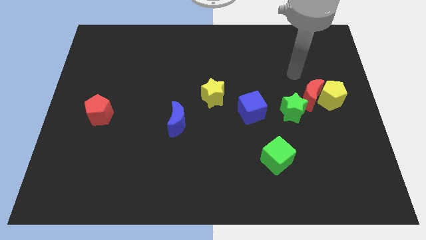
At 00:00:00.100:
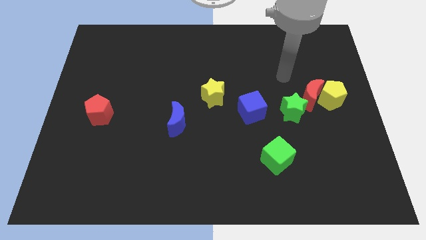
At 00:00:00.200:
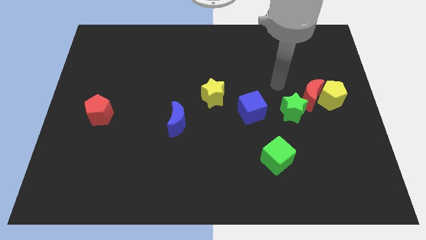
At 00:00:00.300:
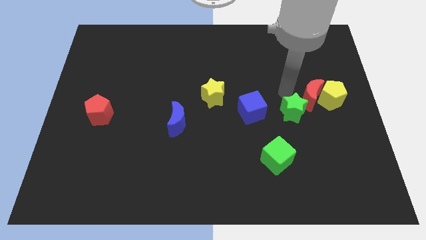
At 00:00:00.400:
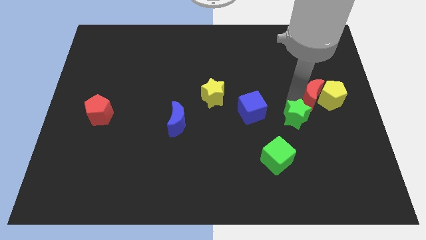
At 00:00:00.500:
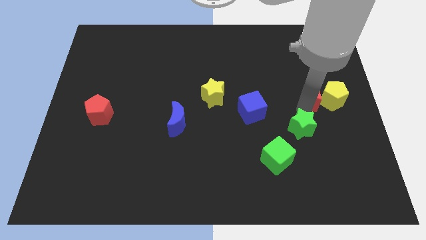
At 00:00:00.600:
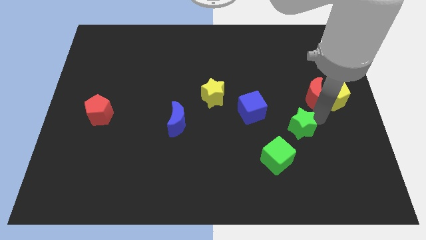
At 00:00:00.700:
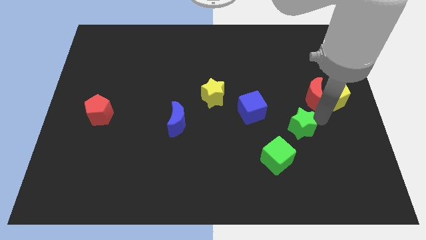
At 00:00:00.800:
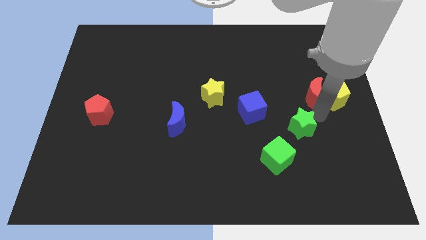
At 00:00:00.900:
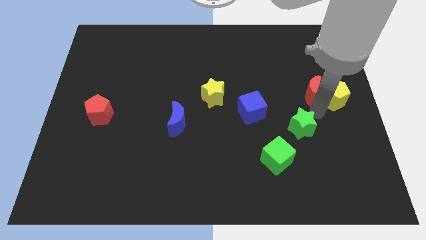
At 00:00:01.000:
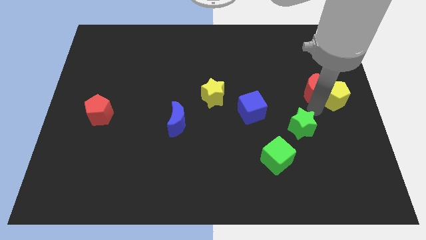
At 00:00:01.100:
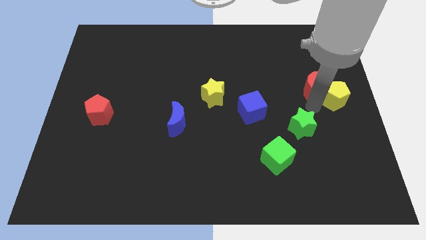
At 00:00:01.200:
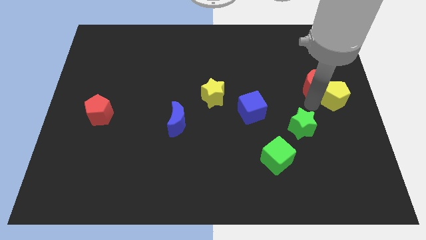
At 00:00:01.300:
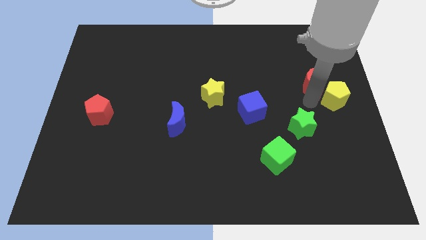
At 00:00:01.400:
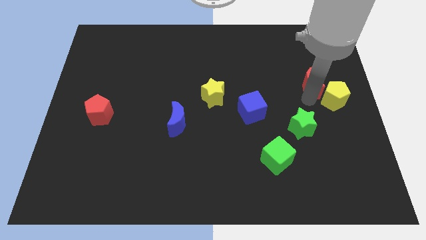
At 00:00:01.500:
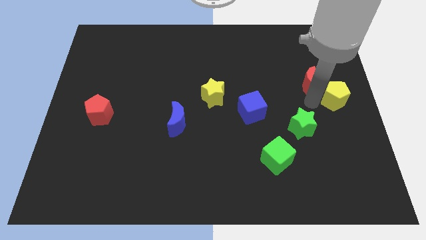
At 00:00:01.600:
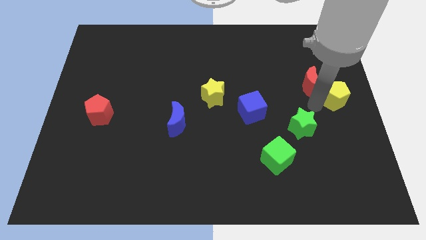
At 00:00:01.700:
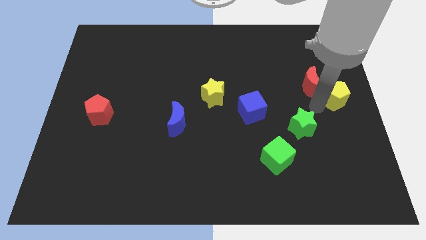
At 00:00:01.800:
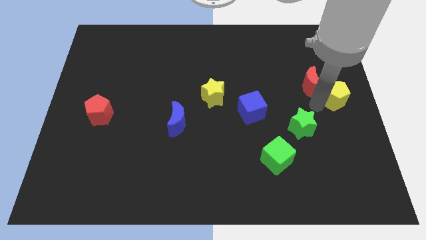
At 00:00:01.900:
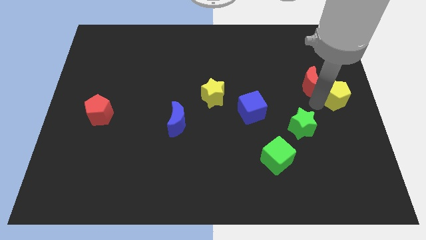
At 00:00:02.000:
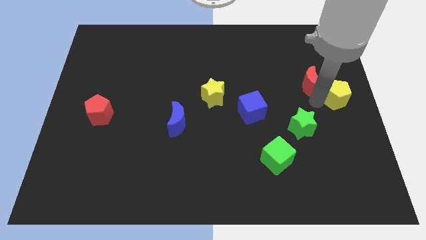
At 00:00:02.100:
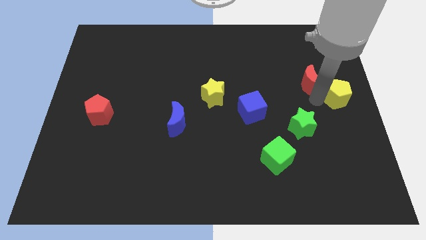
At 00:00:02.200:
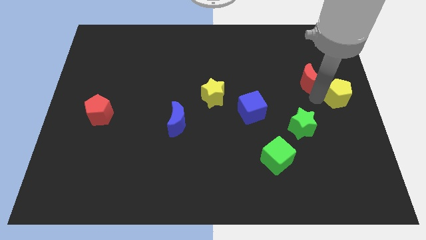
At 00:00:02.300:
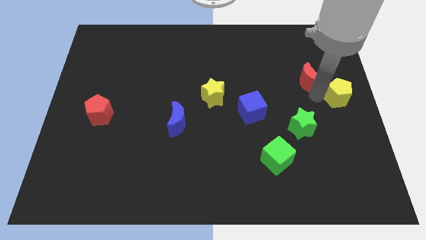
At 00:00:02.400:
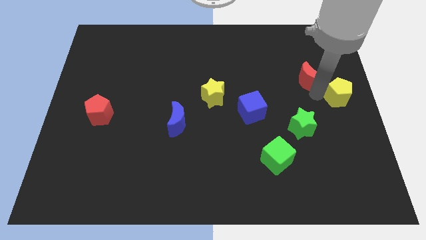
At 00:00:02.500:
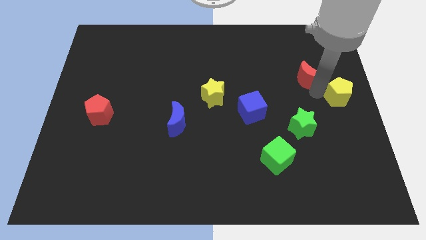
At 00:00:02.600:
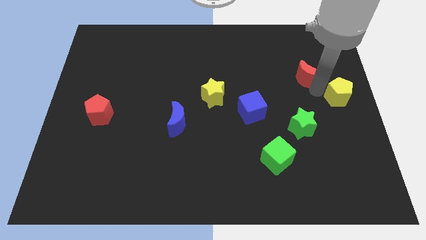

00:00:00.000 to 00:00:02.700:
move the red moon away from the yellow pentagon and green star

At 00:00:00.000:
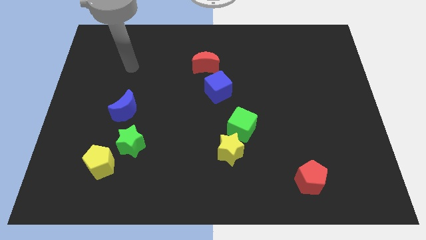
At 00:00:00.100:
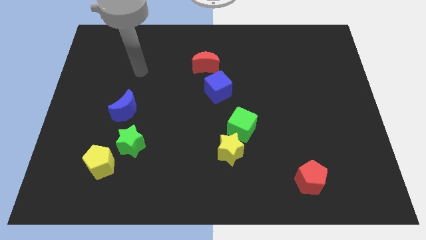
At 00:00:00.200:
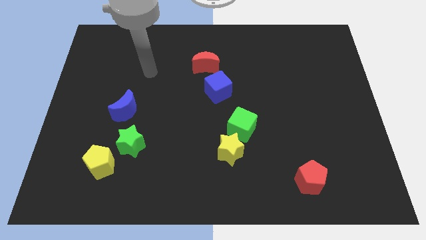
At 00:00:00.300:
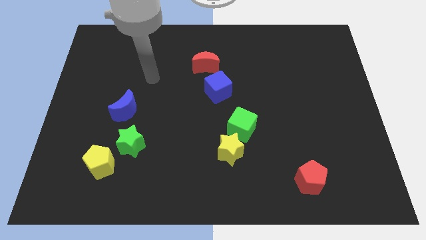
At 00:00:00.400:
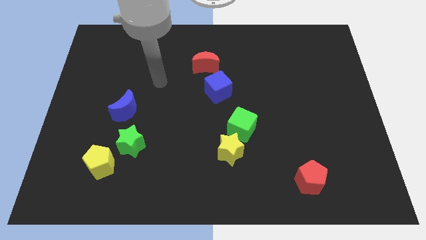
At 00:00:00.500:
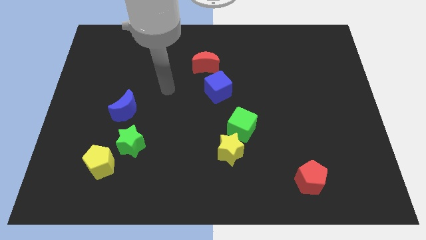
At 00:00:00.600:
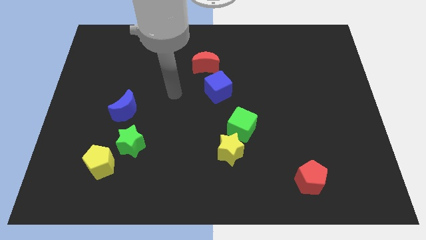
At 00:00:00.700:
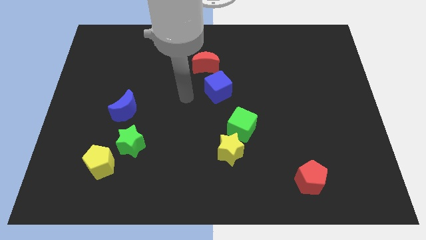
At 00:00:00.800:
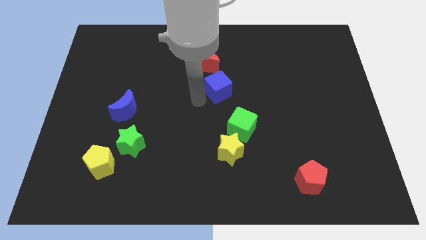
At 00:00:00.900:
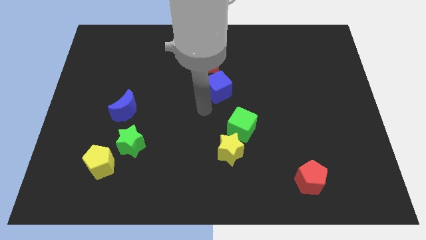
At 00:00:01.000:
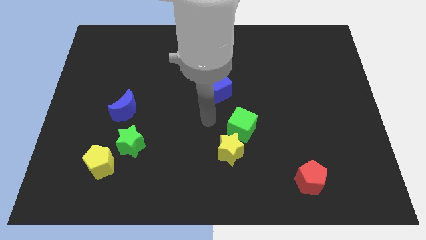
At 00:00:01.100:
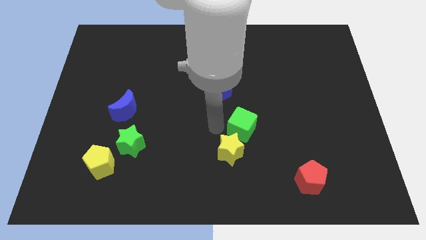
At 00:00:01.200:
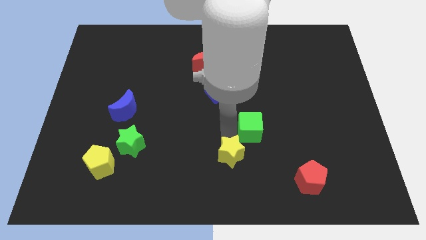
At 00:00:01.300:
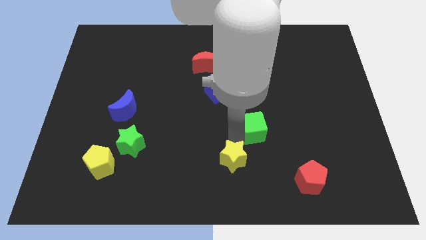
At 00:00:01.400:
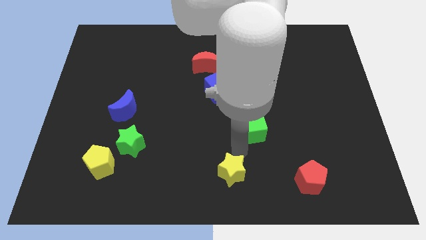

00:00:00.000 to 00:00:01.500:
pull the green cube apart from the yellow star

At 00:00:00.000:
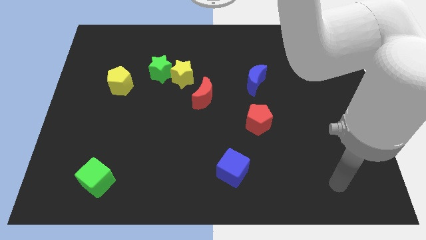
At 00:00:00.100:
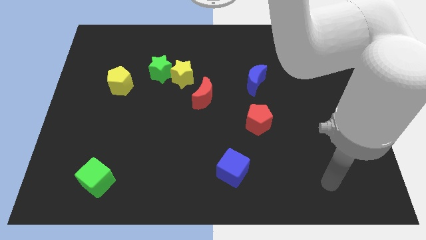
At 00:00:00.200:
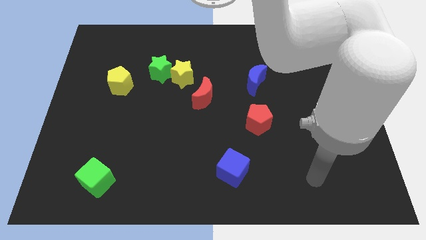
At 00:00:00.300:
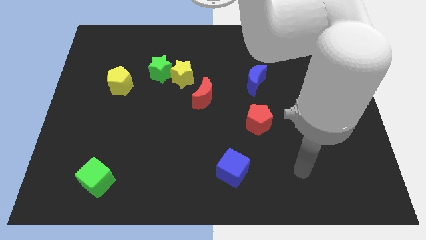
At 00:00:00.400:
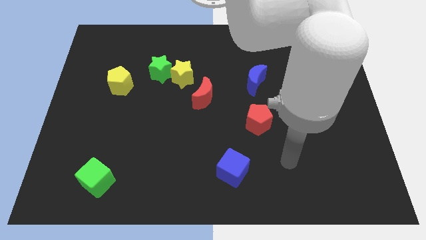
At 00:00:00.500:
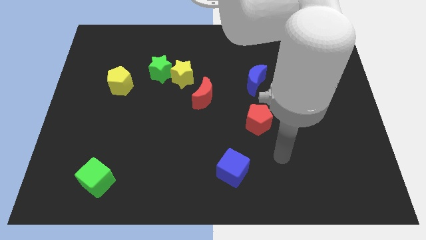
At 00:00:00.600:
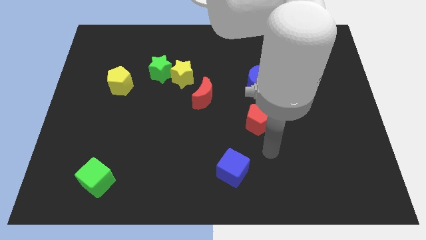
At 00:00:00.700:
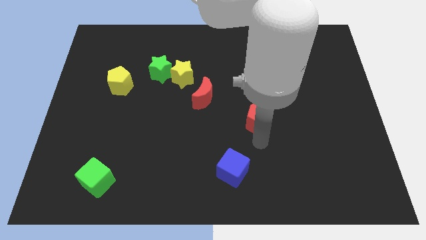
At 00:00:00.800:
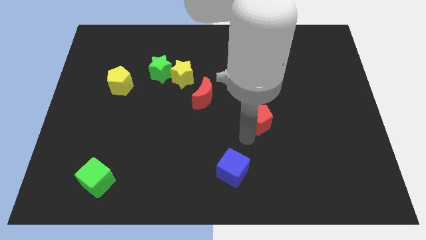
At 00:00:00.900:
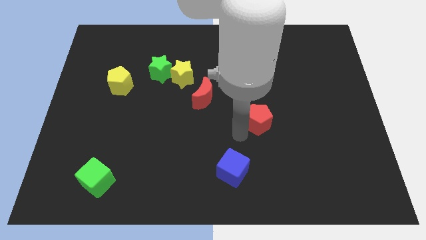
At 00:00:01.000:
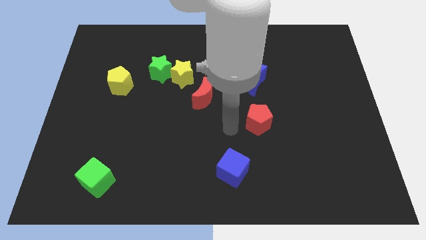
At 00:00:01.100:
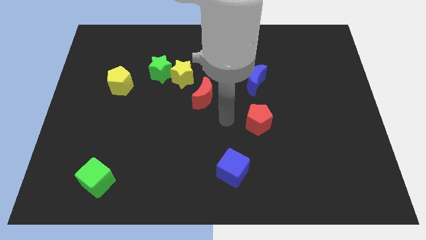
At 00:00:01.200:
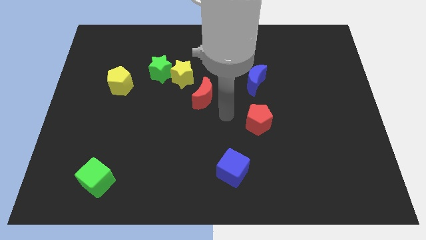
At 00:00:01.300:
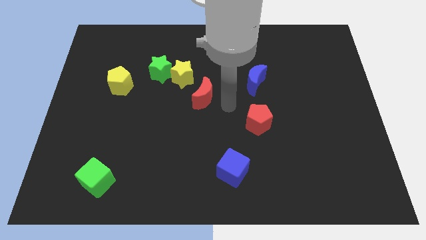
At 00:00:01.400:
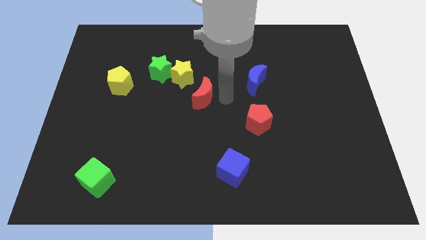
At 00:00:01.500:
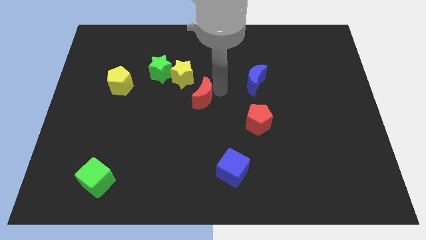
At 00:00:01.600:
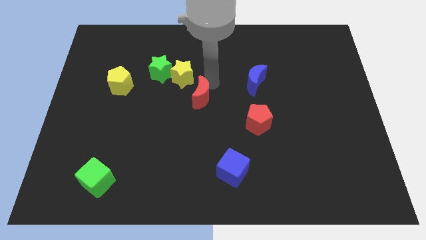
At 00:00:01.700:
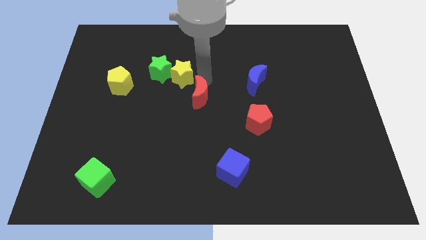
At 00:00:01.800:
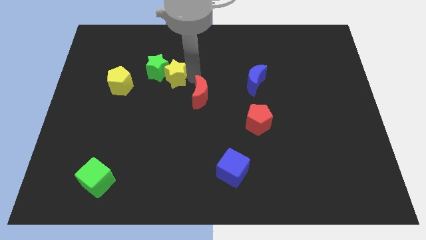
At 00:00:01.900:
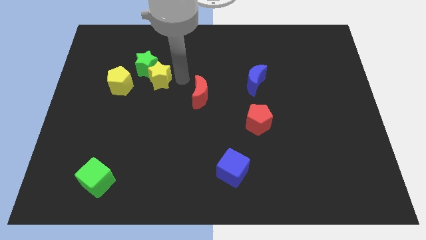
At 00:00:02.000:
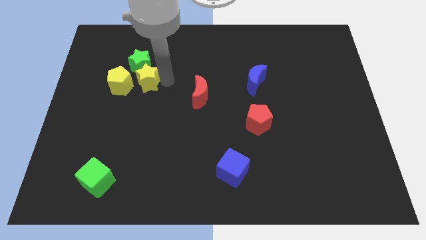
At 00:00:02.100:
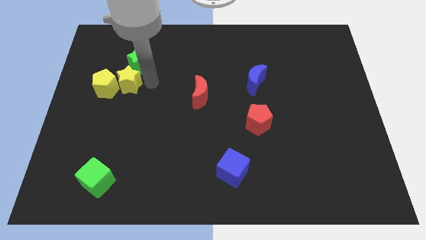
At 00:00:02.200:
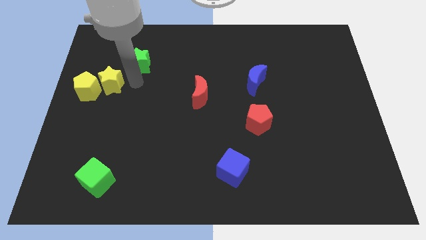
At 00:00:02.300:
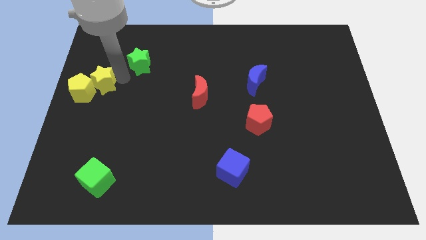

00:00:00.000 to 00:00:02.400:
separate the green star from the yellow star

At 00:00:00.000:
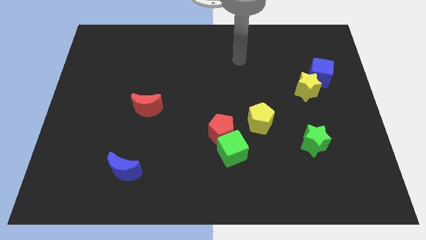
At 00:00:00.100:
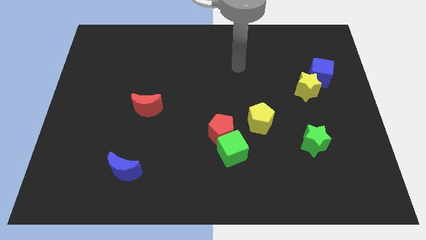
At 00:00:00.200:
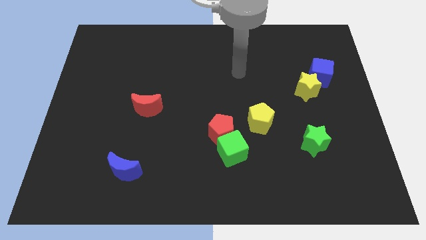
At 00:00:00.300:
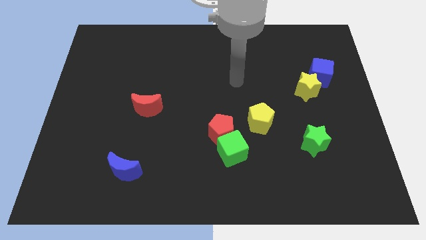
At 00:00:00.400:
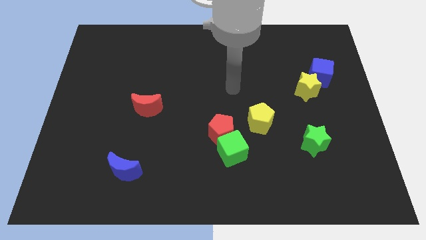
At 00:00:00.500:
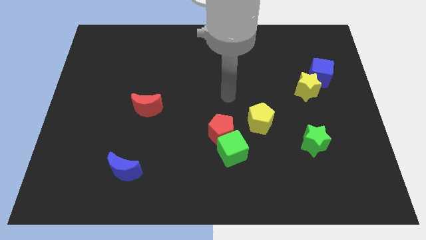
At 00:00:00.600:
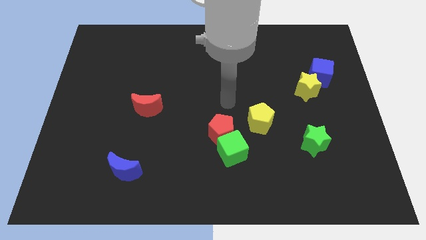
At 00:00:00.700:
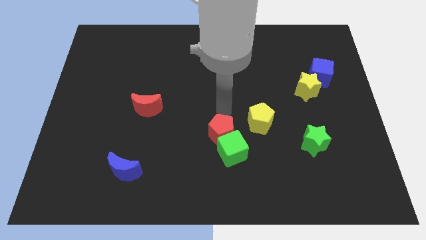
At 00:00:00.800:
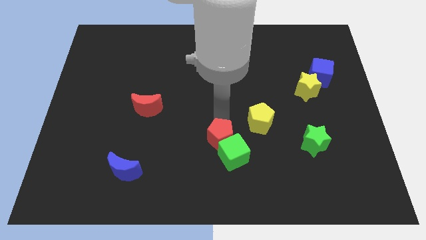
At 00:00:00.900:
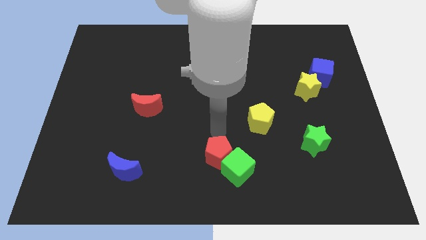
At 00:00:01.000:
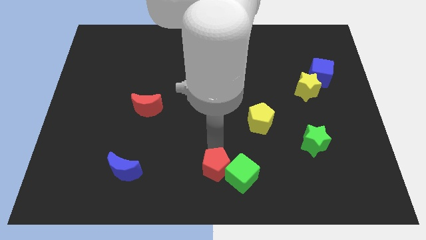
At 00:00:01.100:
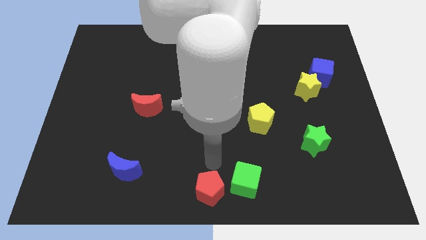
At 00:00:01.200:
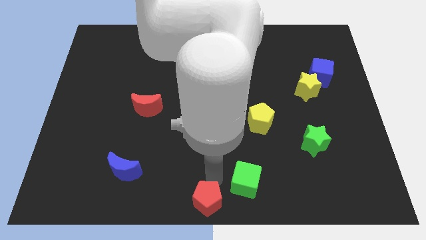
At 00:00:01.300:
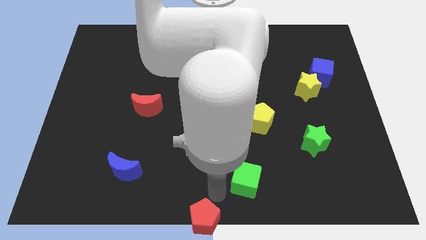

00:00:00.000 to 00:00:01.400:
move the green cube away from the red pentagon

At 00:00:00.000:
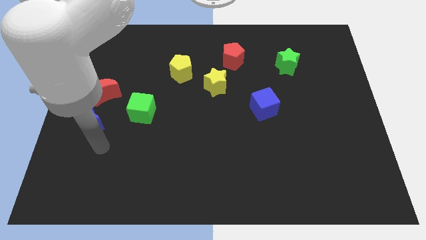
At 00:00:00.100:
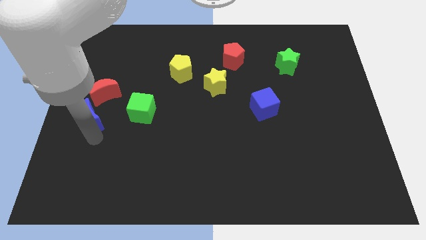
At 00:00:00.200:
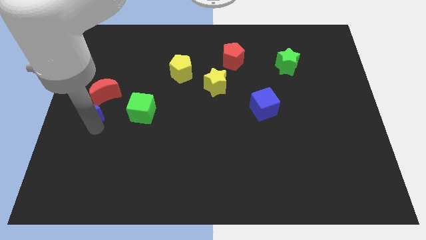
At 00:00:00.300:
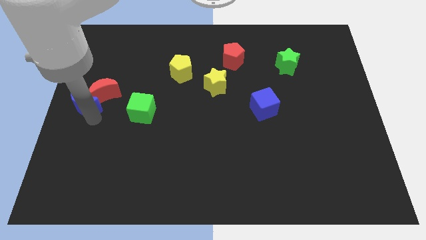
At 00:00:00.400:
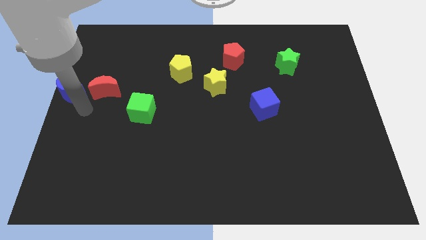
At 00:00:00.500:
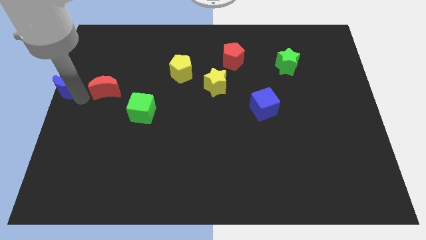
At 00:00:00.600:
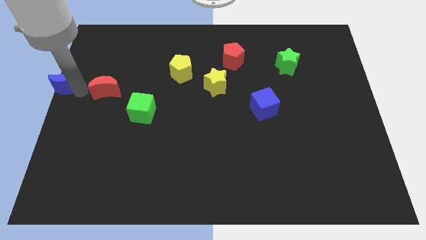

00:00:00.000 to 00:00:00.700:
separate the red moon from the blue moon

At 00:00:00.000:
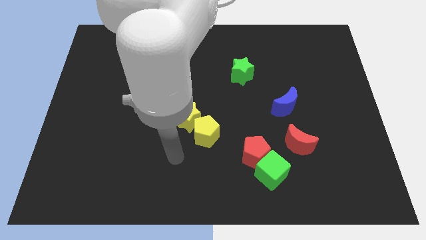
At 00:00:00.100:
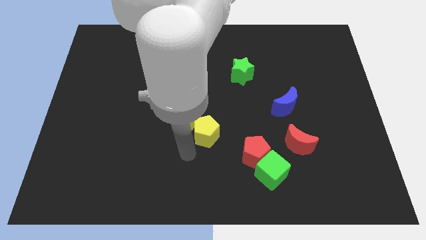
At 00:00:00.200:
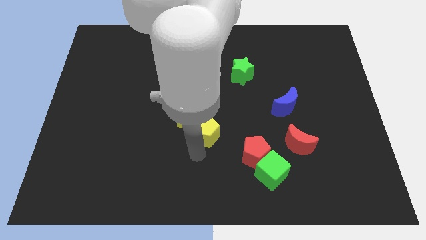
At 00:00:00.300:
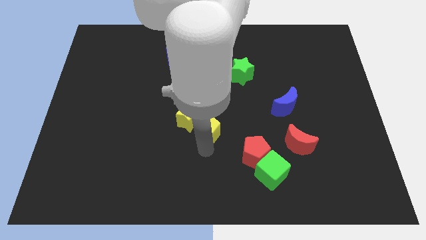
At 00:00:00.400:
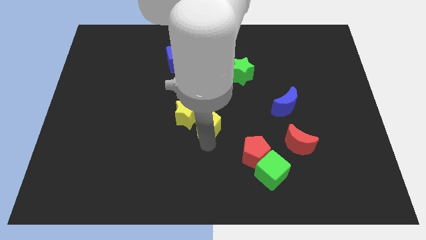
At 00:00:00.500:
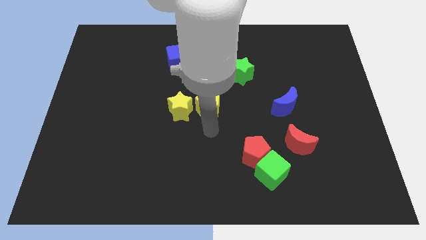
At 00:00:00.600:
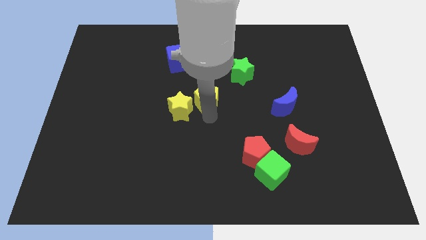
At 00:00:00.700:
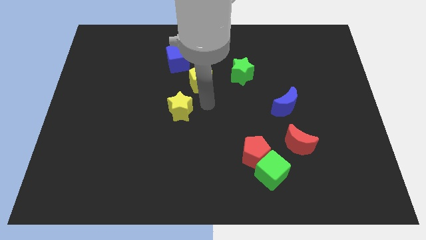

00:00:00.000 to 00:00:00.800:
separate the yellow star from the yellow pentagon
